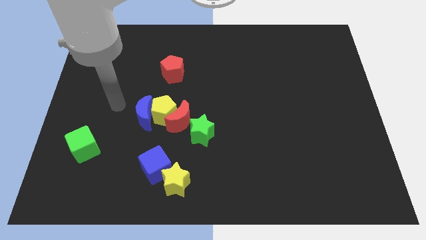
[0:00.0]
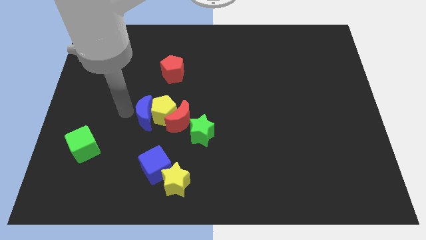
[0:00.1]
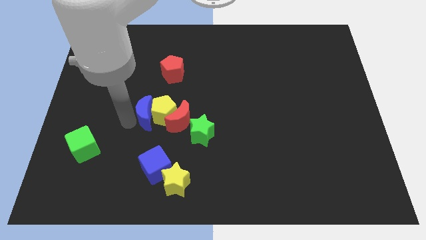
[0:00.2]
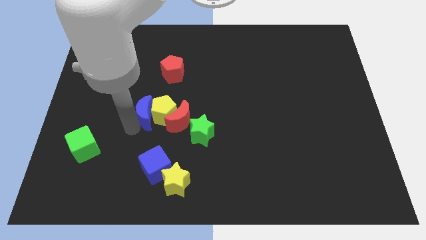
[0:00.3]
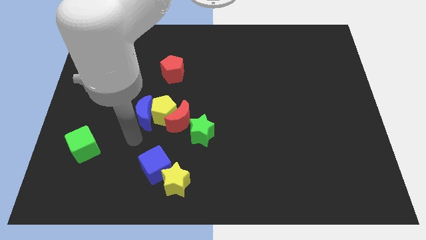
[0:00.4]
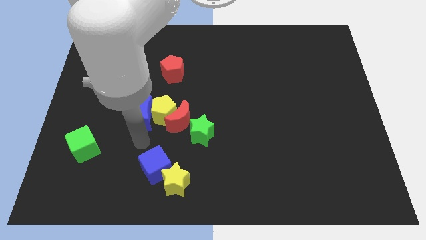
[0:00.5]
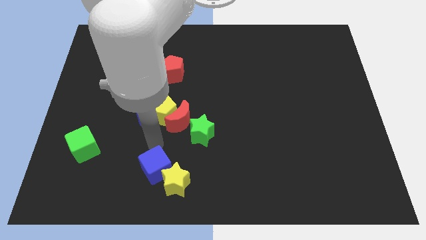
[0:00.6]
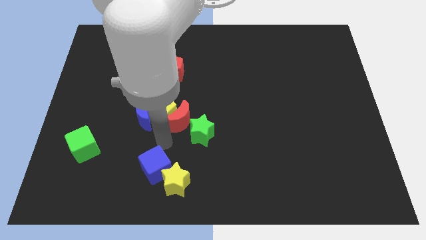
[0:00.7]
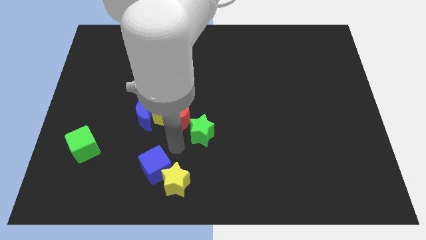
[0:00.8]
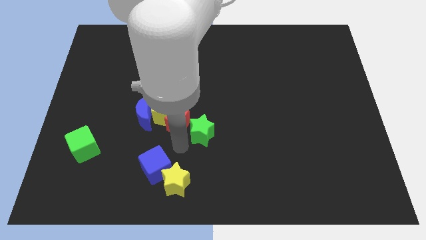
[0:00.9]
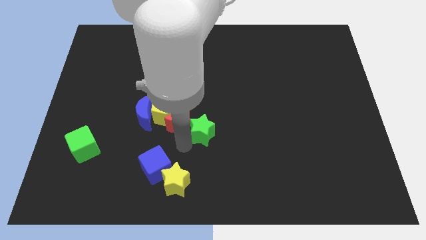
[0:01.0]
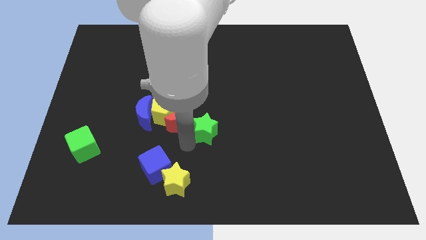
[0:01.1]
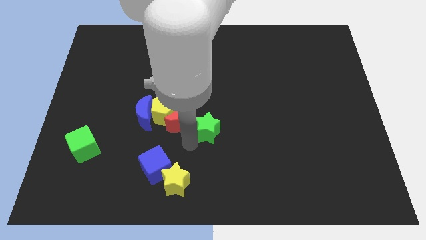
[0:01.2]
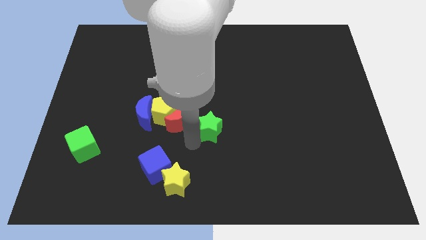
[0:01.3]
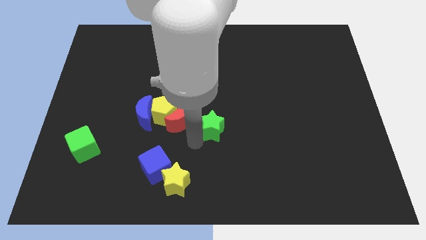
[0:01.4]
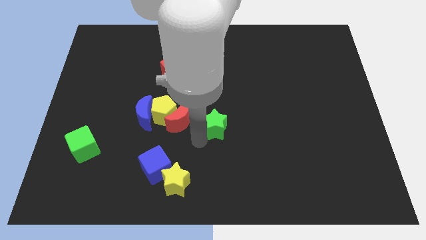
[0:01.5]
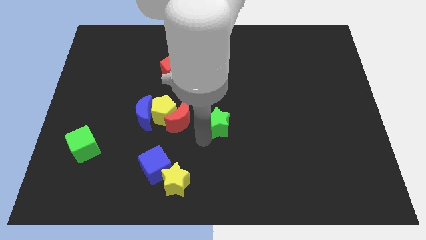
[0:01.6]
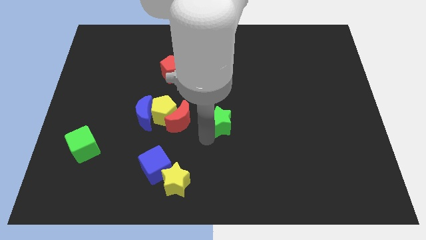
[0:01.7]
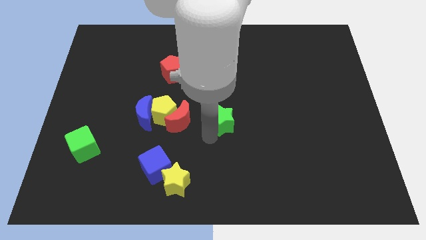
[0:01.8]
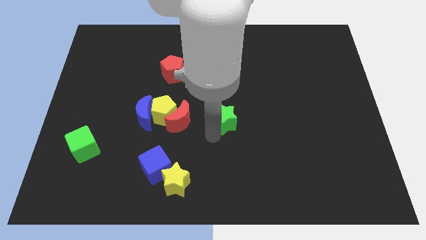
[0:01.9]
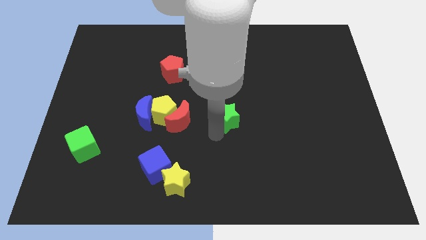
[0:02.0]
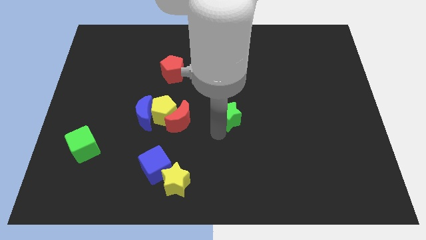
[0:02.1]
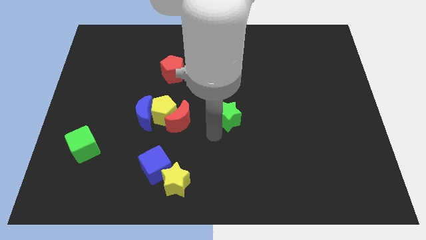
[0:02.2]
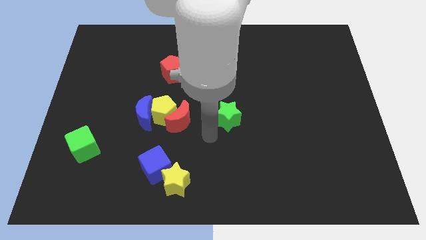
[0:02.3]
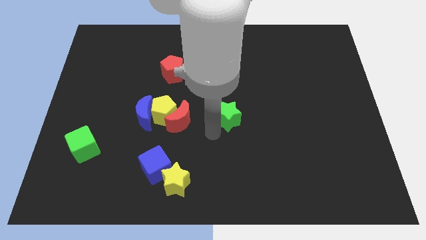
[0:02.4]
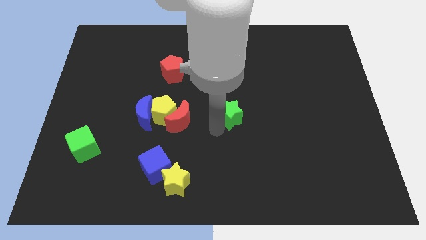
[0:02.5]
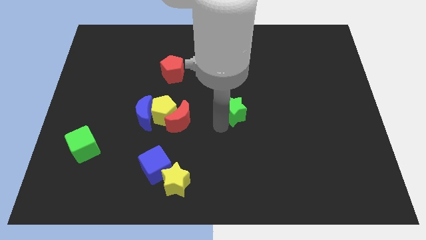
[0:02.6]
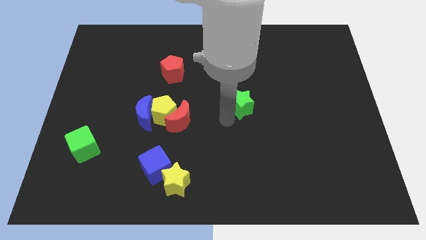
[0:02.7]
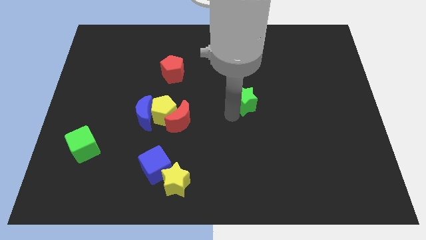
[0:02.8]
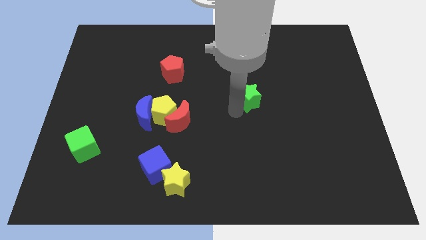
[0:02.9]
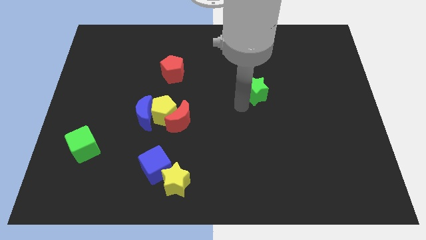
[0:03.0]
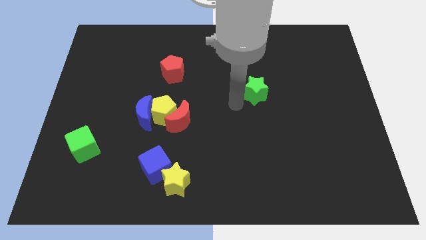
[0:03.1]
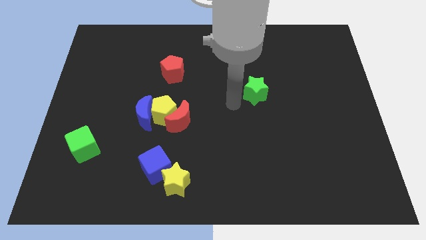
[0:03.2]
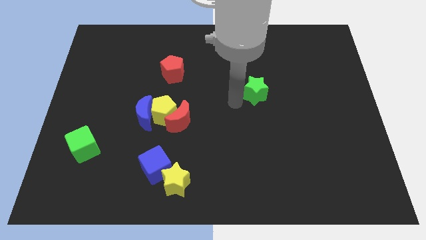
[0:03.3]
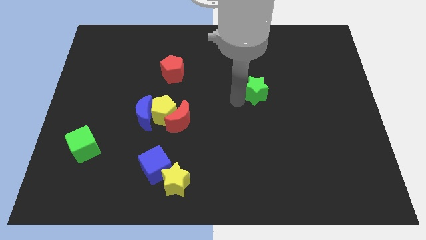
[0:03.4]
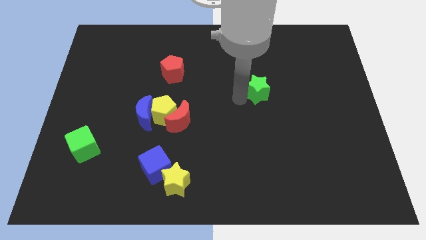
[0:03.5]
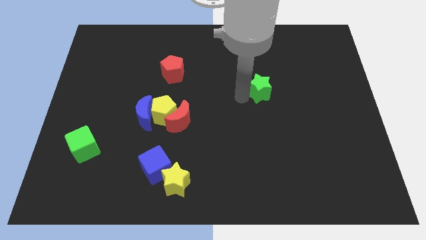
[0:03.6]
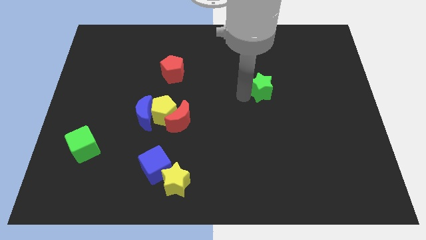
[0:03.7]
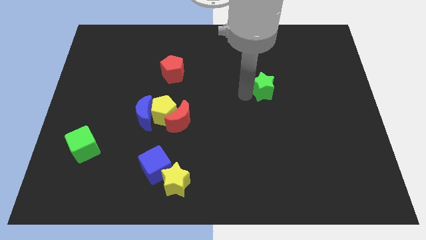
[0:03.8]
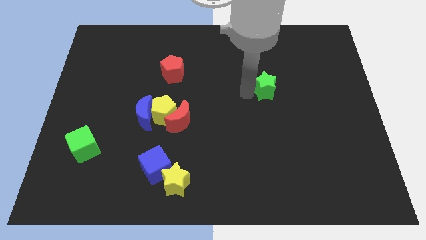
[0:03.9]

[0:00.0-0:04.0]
move the green star upwards and then to the right

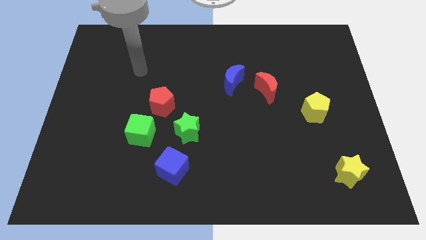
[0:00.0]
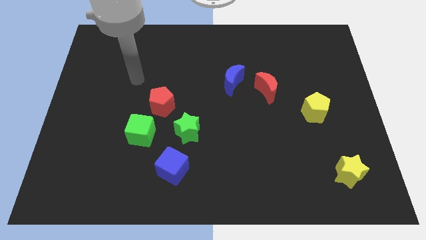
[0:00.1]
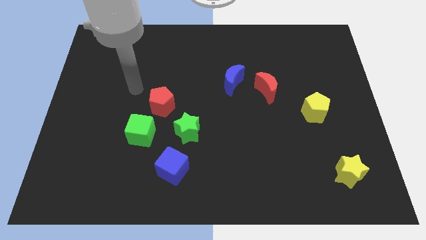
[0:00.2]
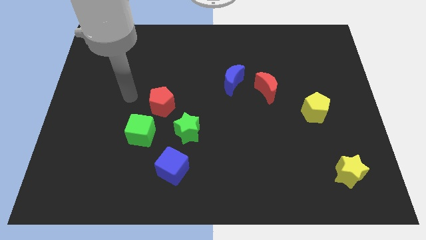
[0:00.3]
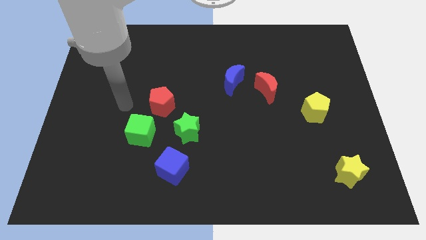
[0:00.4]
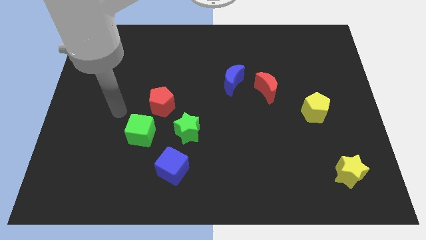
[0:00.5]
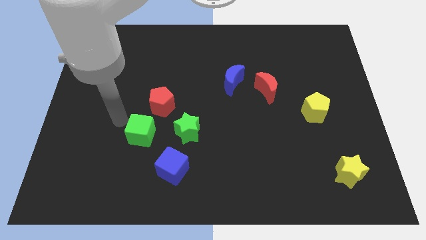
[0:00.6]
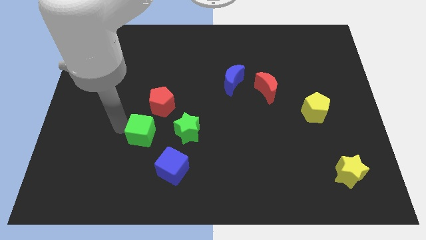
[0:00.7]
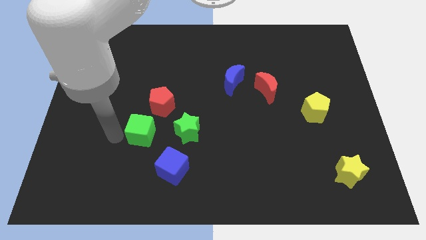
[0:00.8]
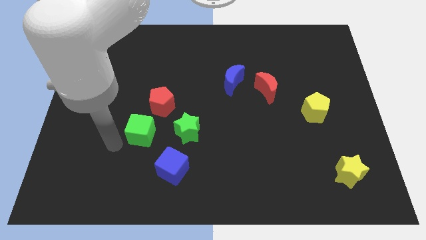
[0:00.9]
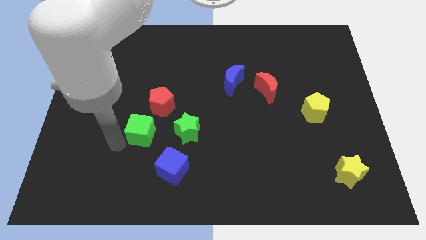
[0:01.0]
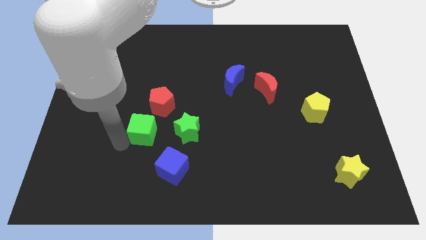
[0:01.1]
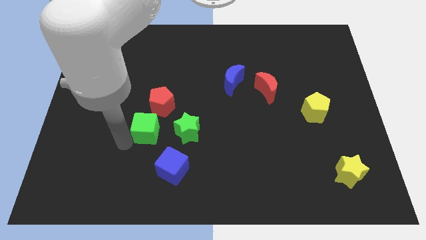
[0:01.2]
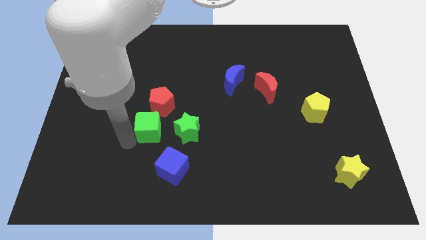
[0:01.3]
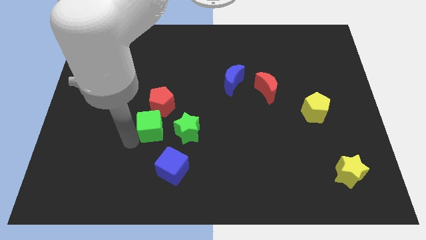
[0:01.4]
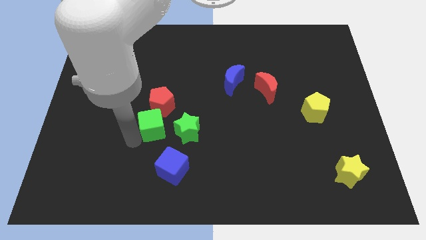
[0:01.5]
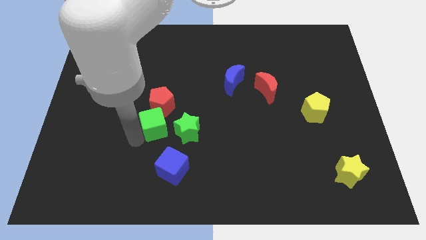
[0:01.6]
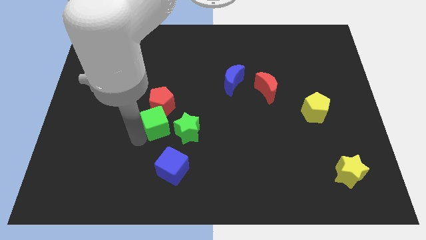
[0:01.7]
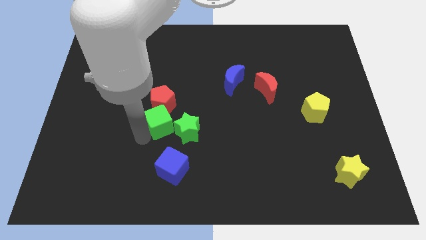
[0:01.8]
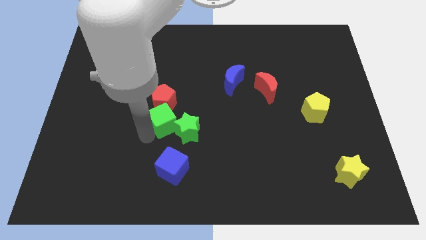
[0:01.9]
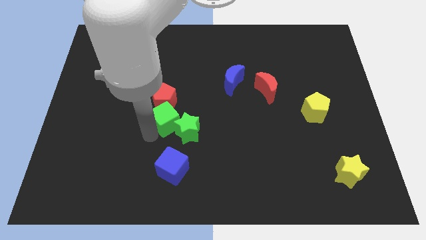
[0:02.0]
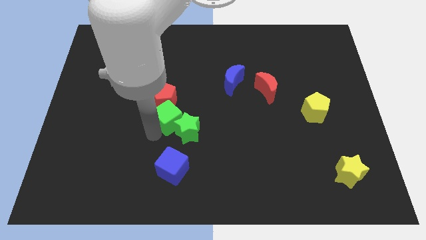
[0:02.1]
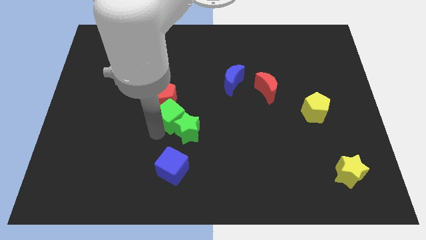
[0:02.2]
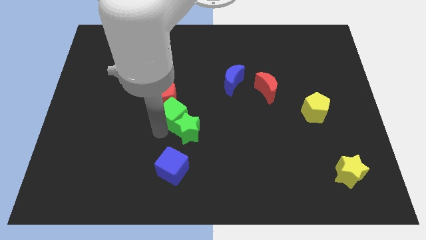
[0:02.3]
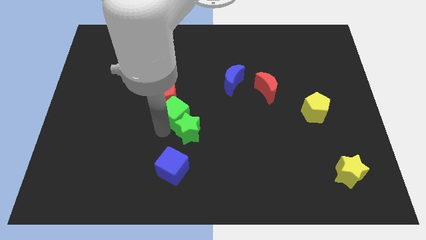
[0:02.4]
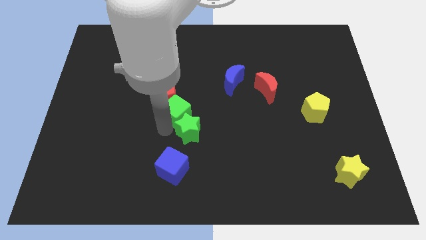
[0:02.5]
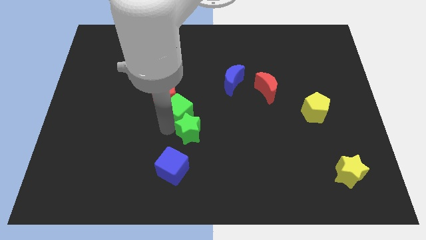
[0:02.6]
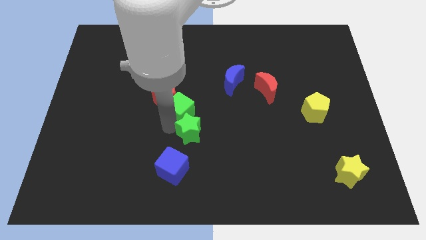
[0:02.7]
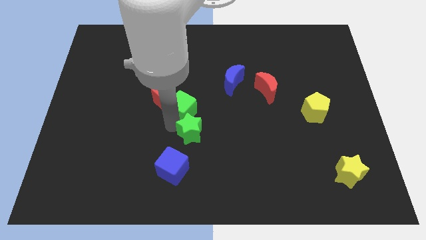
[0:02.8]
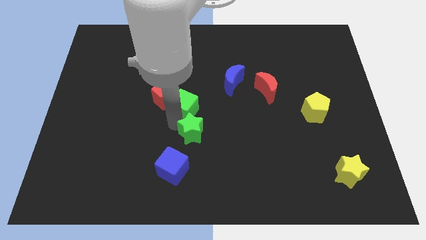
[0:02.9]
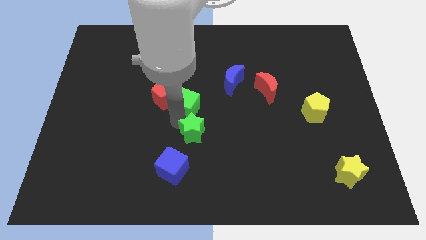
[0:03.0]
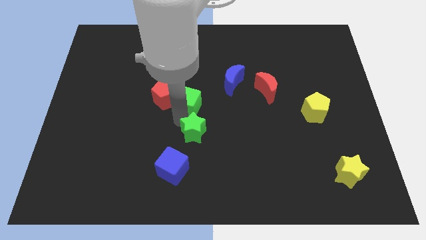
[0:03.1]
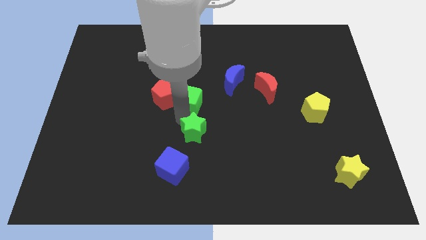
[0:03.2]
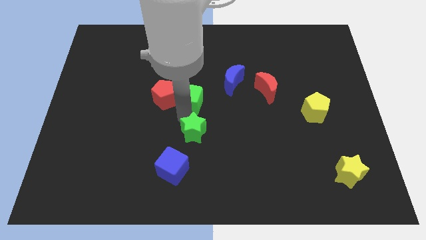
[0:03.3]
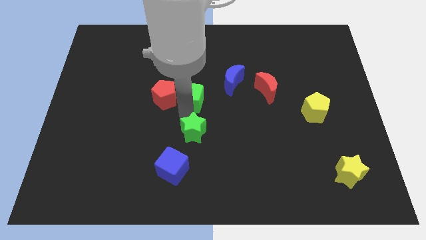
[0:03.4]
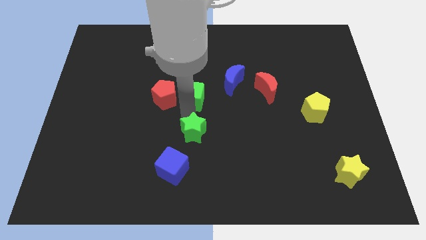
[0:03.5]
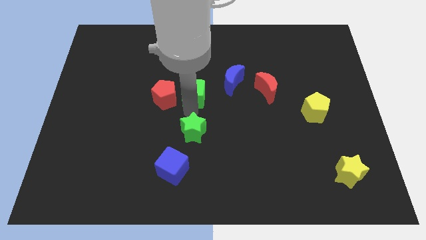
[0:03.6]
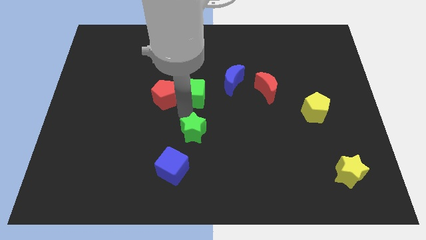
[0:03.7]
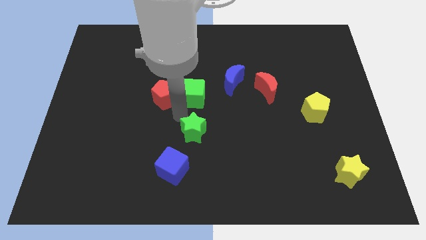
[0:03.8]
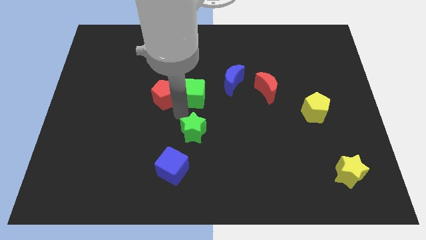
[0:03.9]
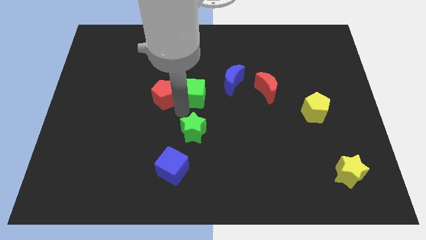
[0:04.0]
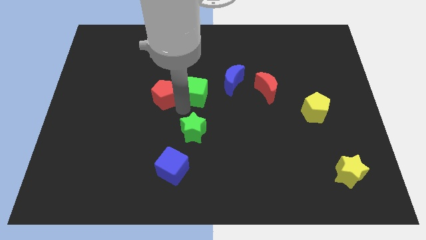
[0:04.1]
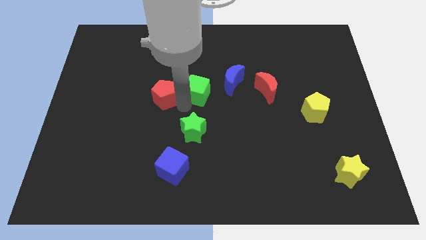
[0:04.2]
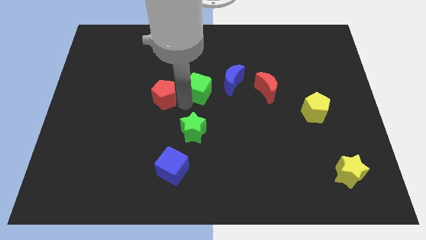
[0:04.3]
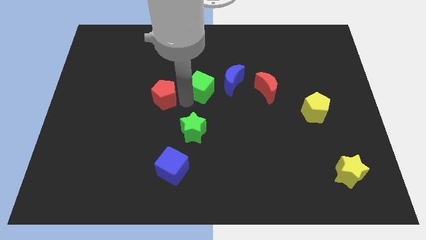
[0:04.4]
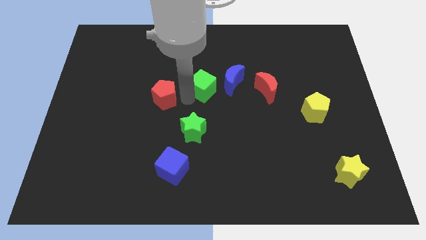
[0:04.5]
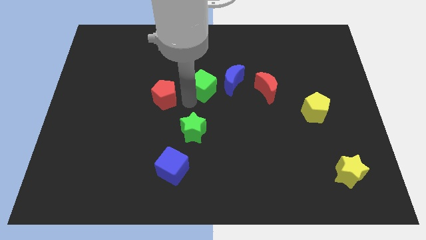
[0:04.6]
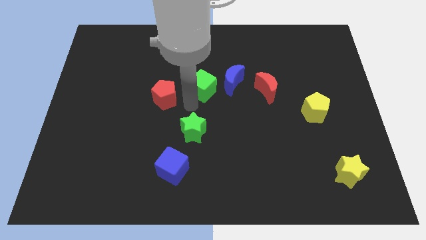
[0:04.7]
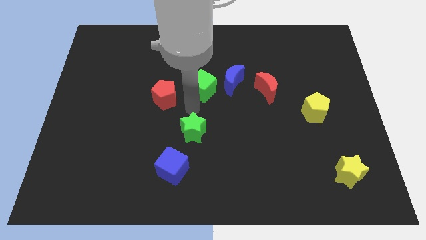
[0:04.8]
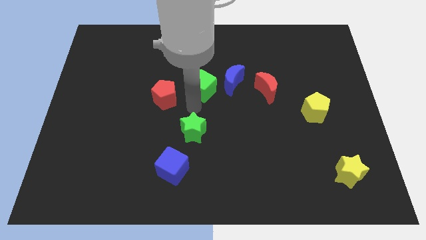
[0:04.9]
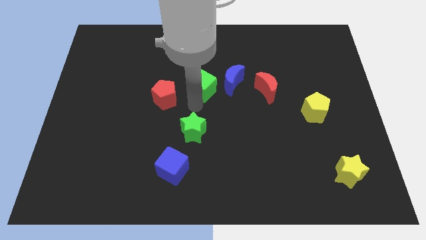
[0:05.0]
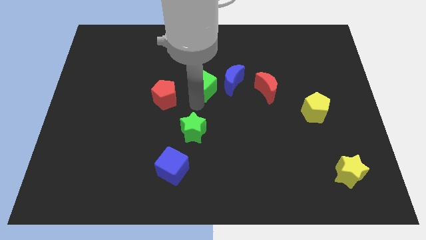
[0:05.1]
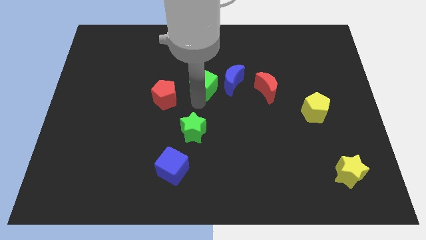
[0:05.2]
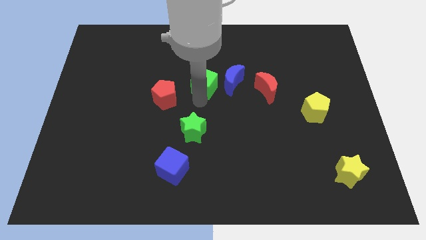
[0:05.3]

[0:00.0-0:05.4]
push the green cube diagonally up and to the right
